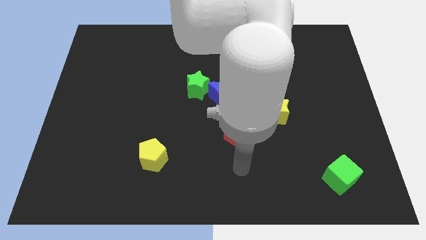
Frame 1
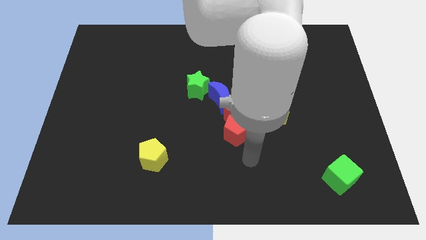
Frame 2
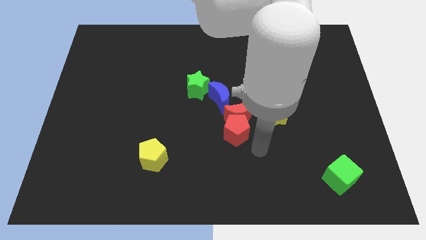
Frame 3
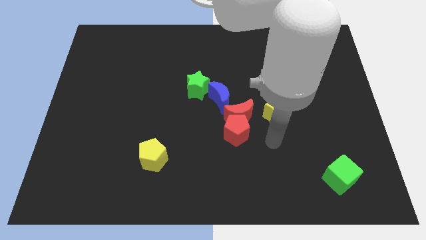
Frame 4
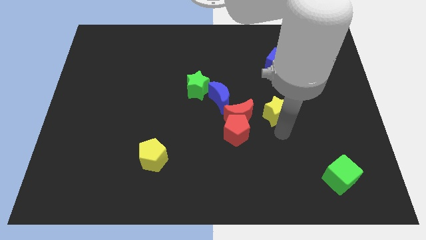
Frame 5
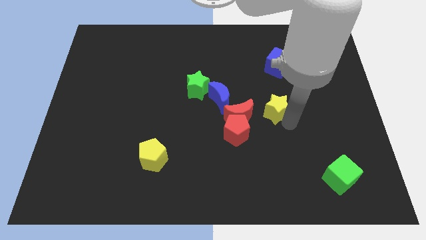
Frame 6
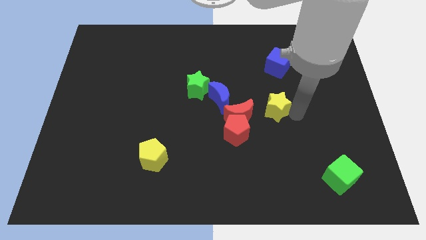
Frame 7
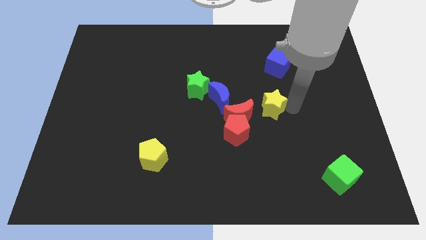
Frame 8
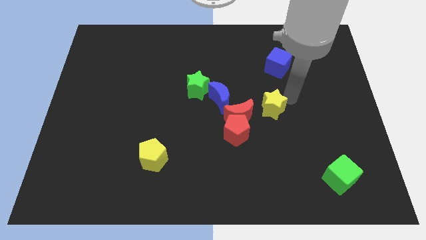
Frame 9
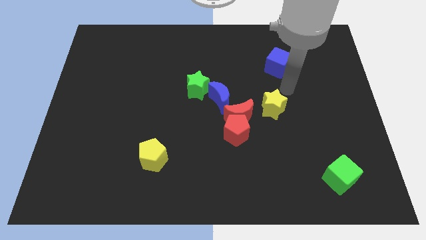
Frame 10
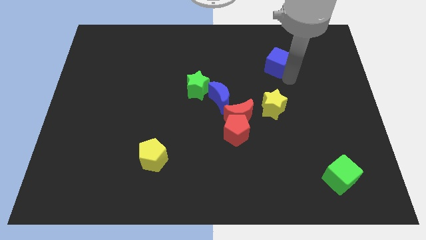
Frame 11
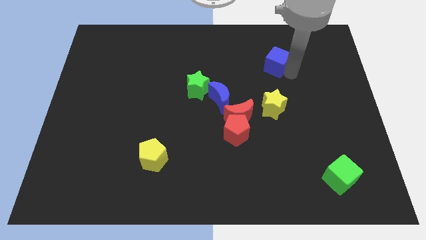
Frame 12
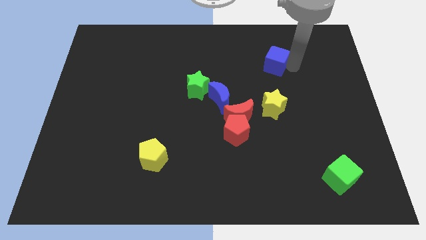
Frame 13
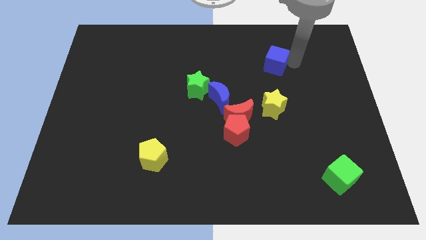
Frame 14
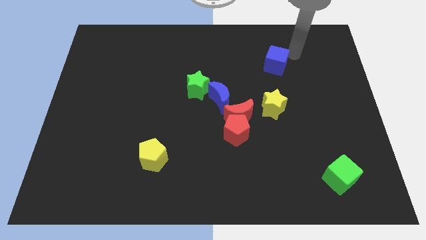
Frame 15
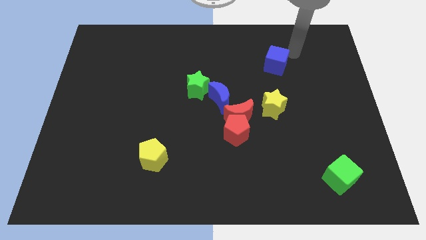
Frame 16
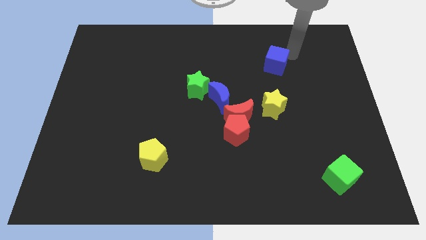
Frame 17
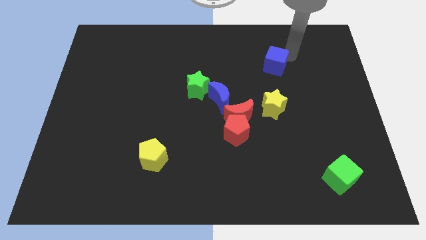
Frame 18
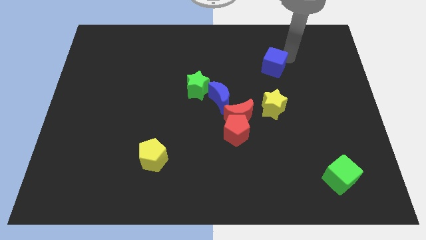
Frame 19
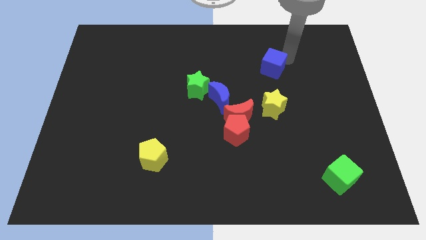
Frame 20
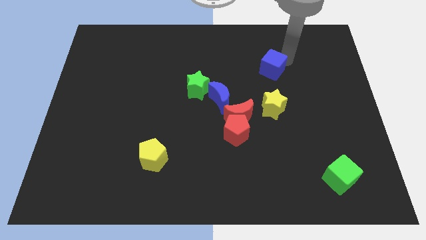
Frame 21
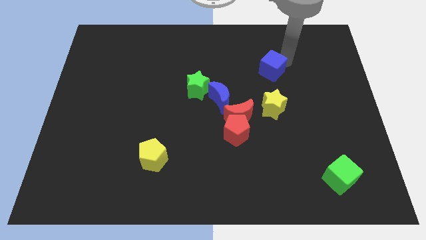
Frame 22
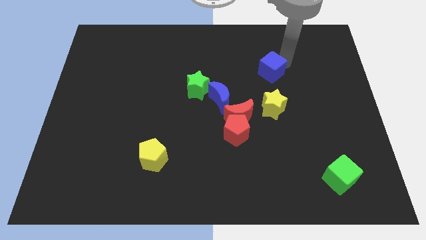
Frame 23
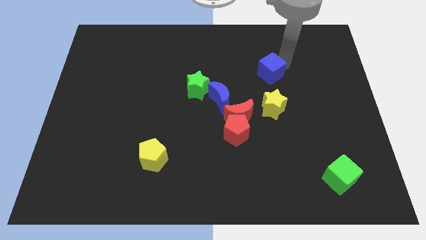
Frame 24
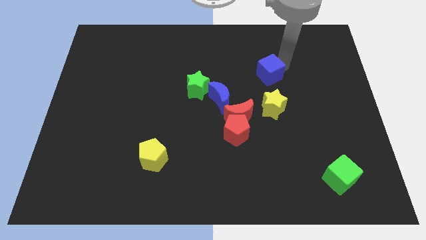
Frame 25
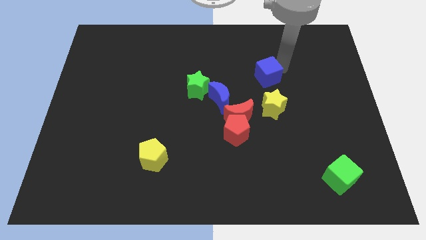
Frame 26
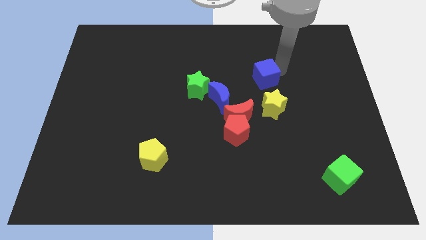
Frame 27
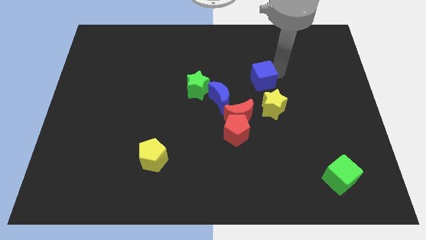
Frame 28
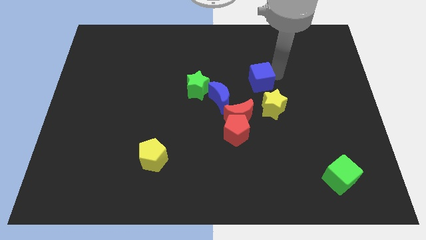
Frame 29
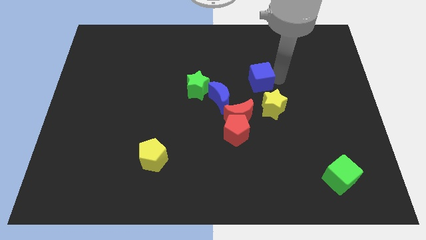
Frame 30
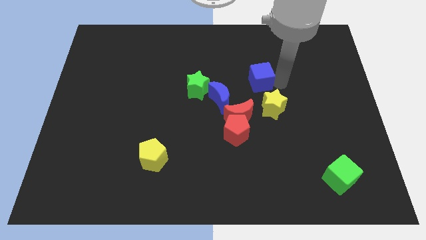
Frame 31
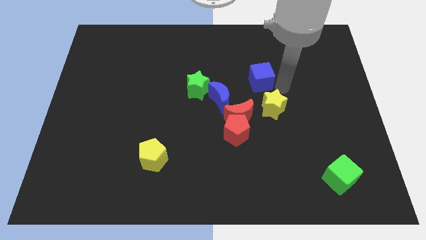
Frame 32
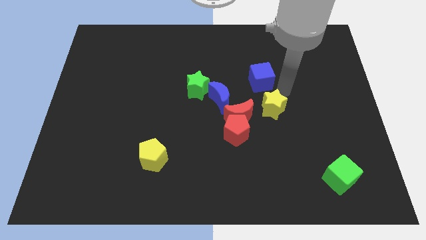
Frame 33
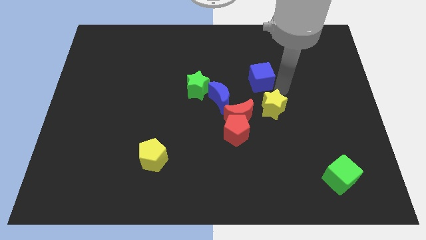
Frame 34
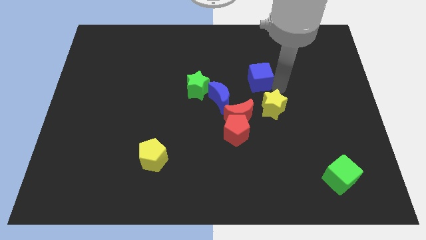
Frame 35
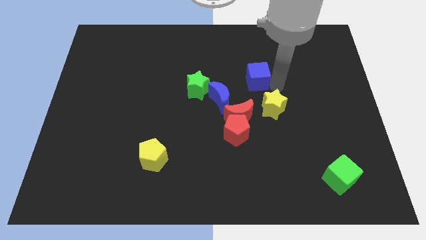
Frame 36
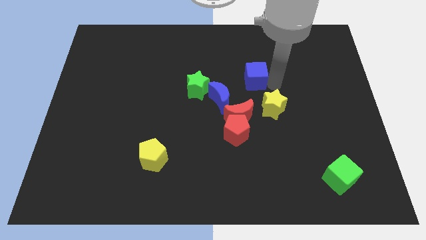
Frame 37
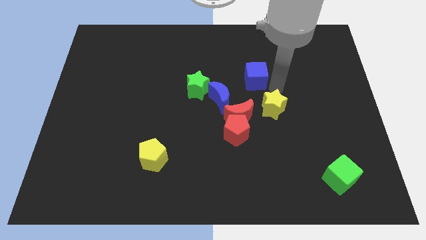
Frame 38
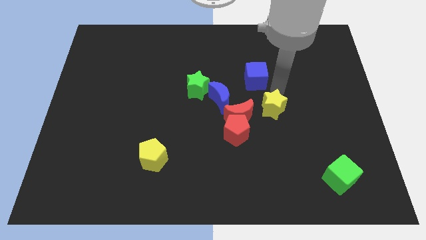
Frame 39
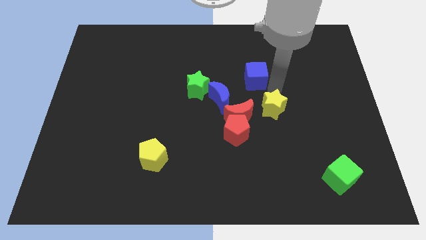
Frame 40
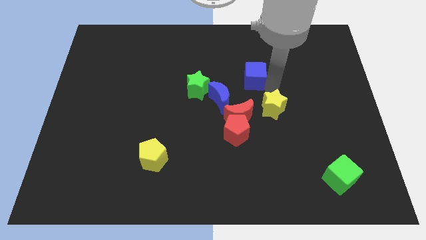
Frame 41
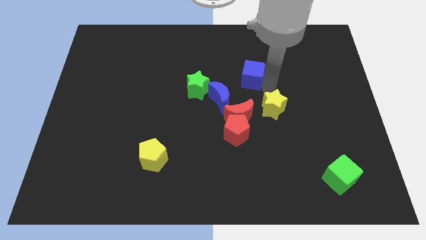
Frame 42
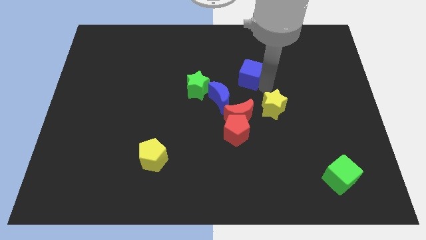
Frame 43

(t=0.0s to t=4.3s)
push the blue cube left a bit

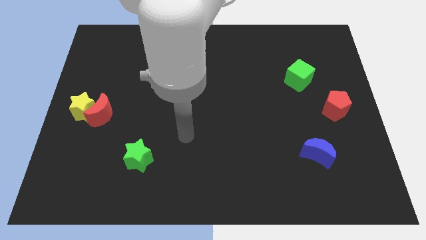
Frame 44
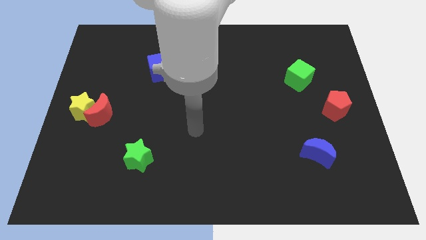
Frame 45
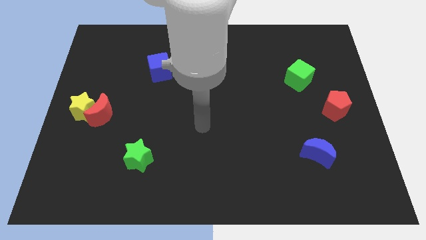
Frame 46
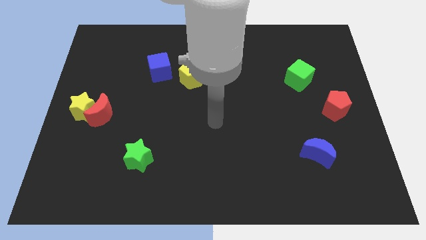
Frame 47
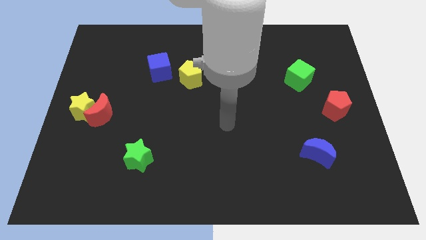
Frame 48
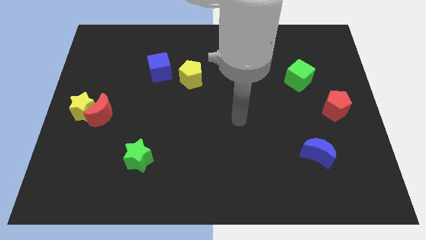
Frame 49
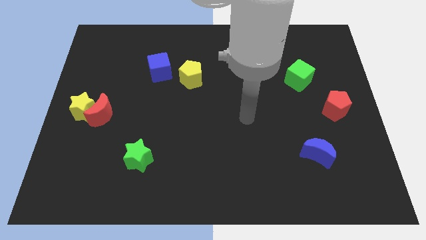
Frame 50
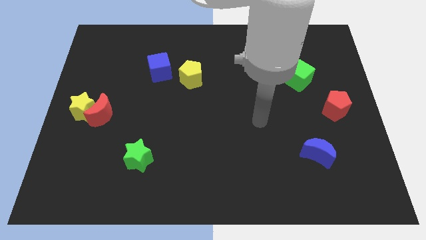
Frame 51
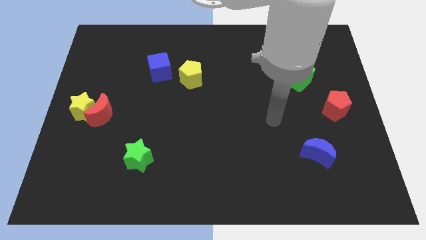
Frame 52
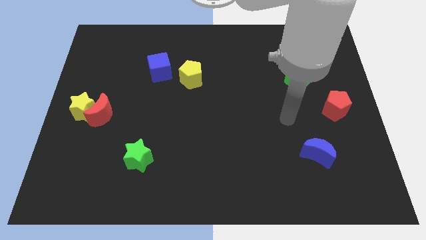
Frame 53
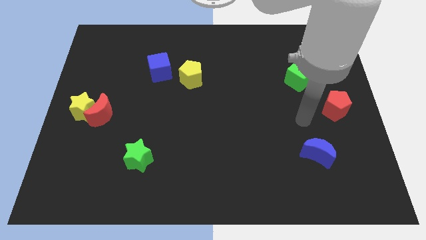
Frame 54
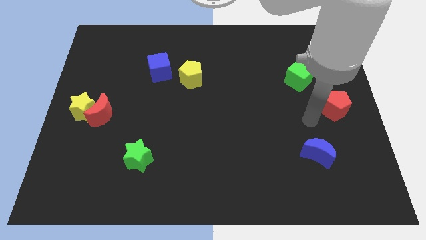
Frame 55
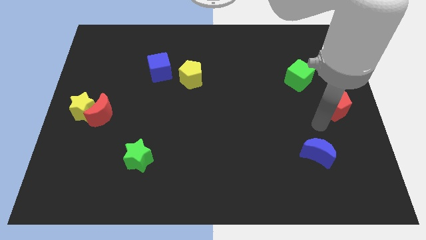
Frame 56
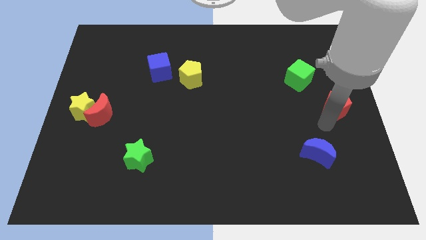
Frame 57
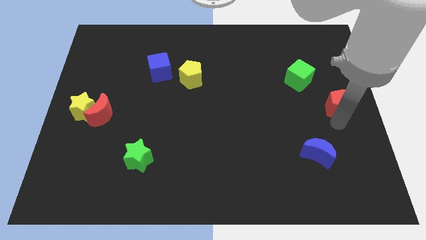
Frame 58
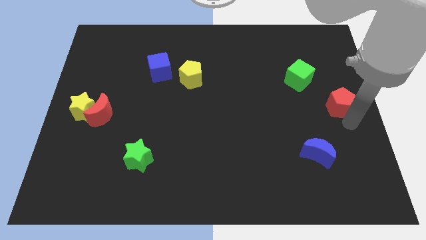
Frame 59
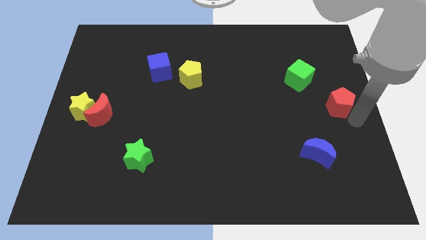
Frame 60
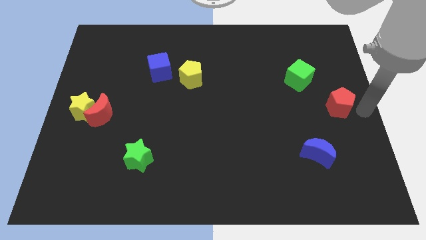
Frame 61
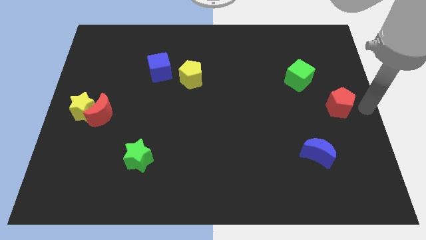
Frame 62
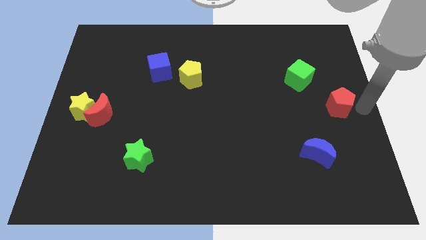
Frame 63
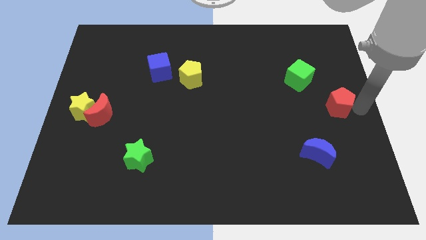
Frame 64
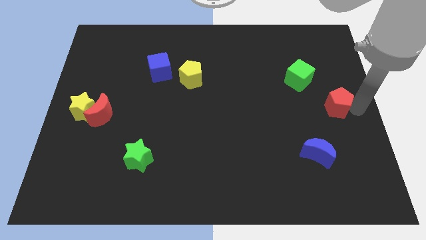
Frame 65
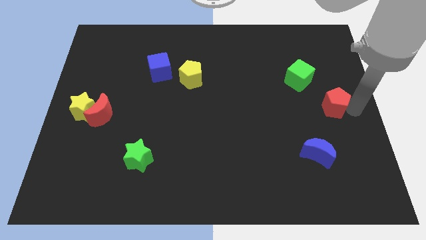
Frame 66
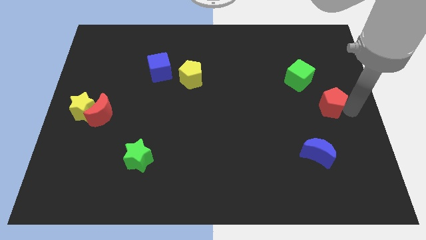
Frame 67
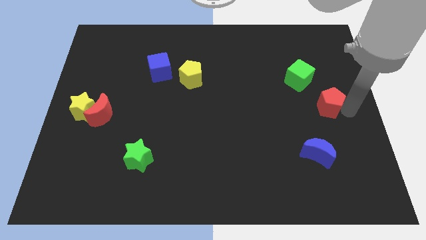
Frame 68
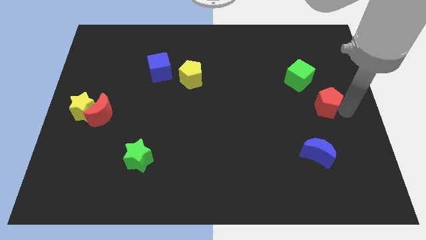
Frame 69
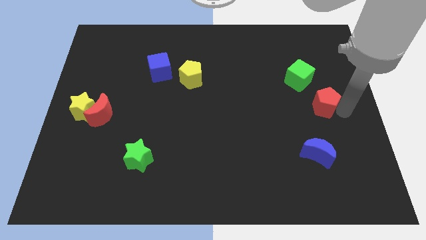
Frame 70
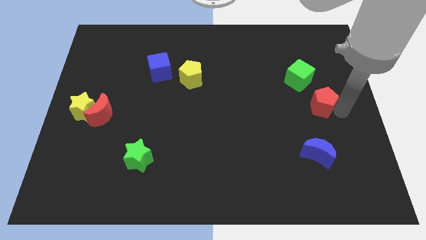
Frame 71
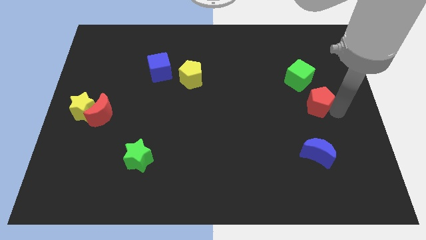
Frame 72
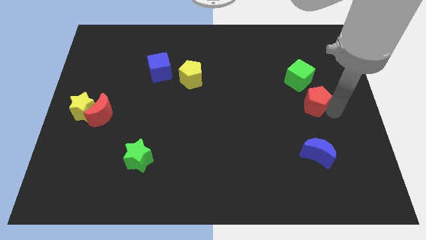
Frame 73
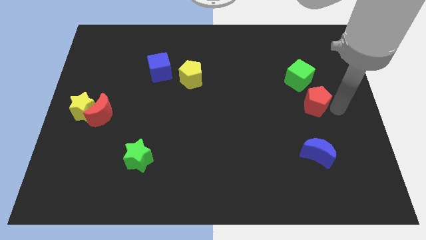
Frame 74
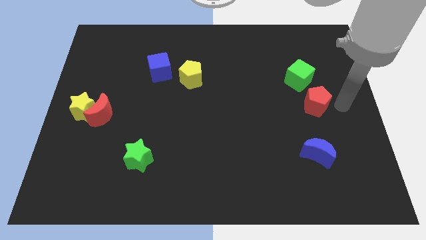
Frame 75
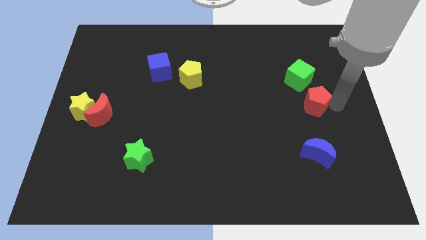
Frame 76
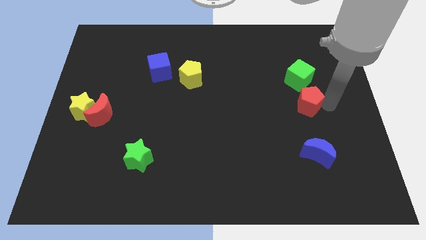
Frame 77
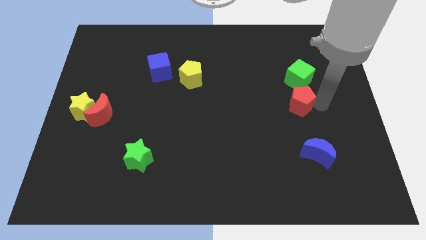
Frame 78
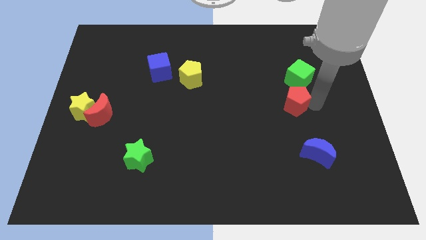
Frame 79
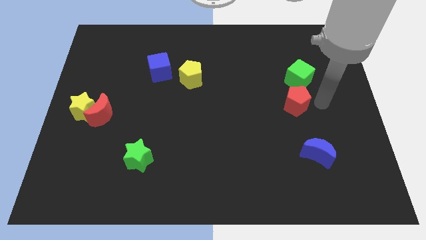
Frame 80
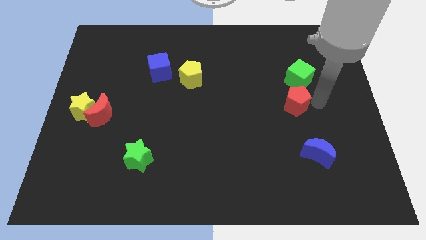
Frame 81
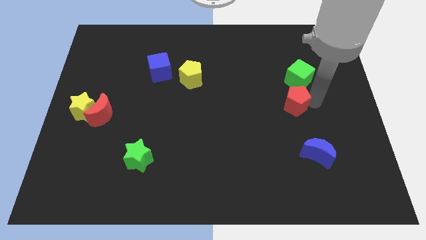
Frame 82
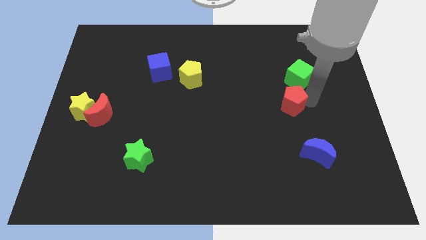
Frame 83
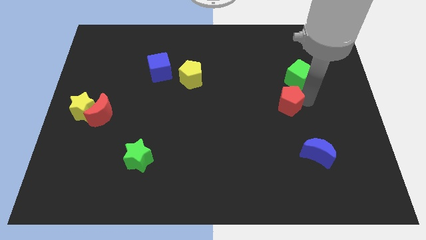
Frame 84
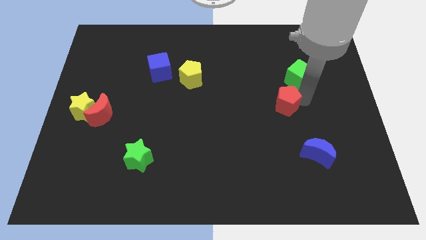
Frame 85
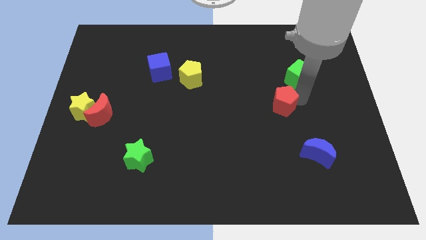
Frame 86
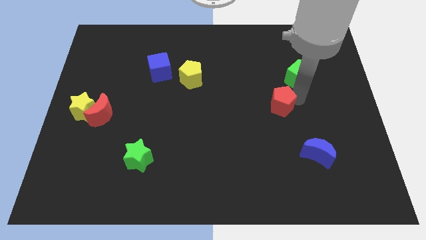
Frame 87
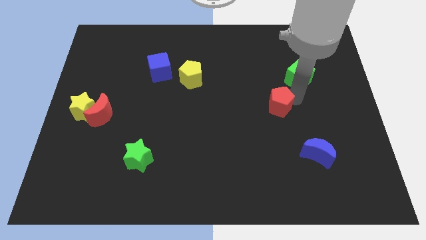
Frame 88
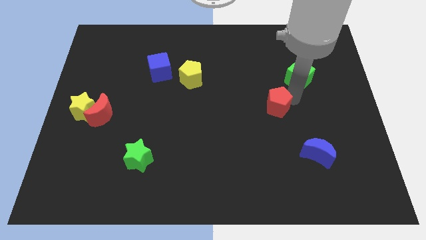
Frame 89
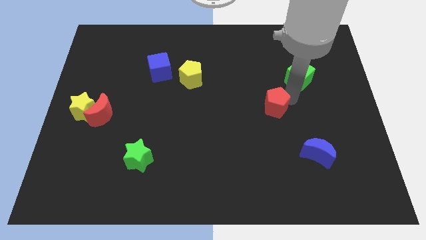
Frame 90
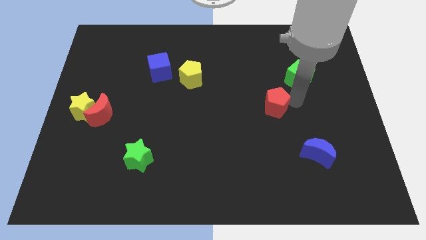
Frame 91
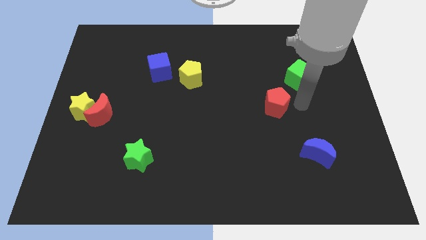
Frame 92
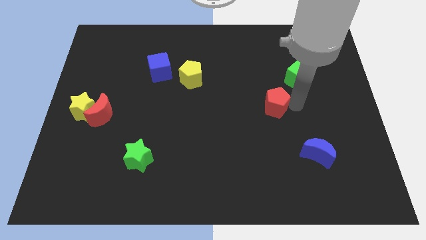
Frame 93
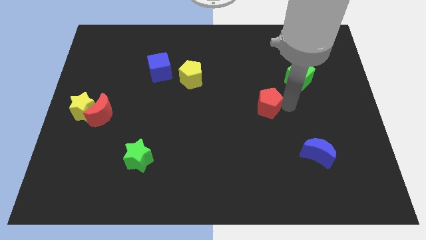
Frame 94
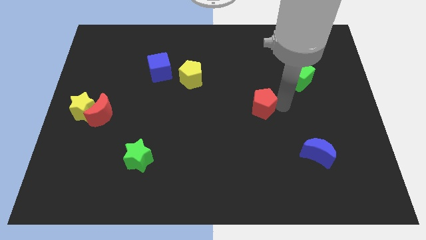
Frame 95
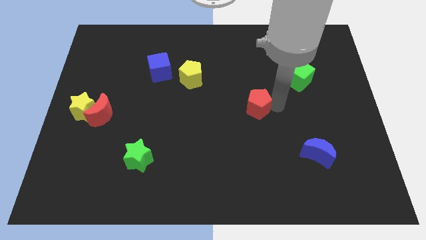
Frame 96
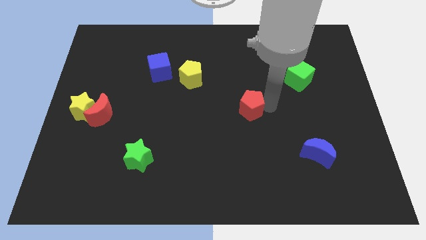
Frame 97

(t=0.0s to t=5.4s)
slide the red pentagon to the left
